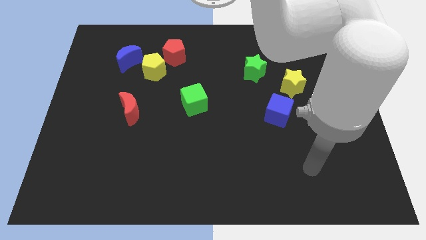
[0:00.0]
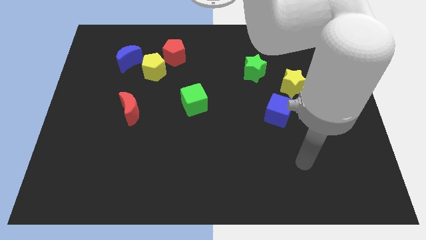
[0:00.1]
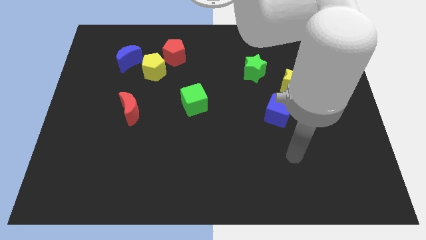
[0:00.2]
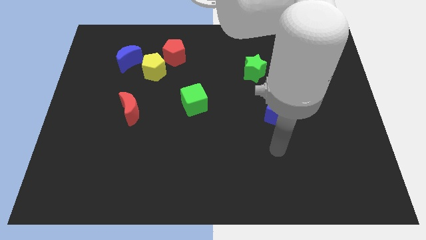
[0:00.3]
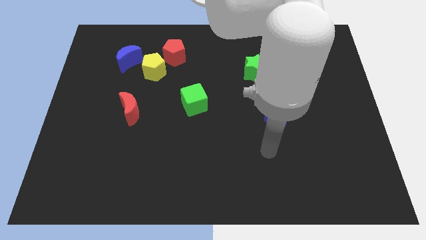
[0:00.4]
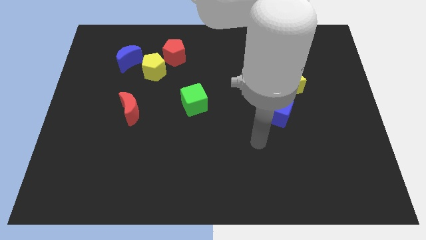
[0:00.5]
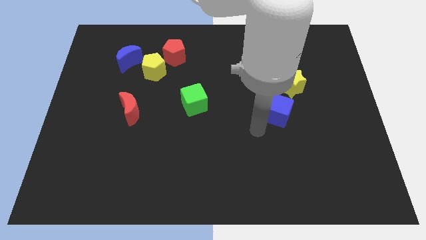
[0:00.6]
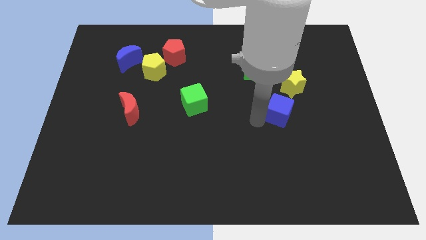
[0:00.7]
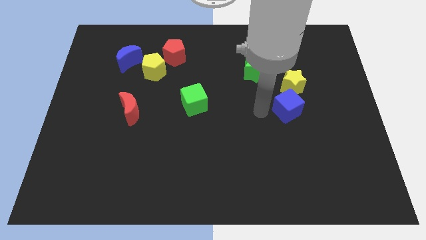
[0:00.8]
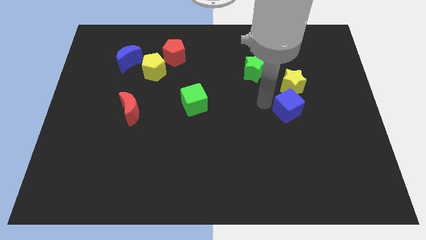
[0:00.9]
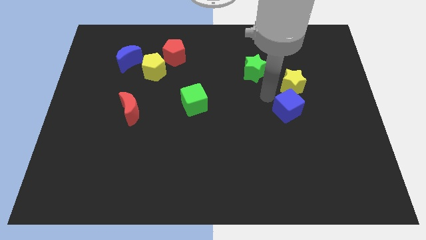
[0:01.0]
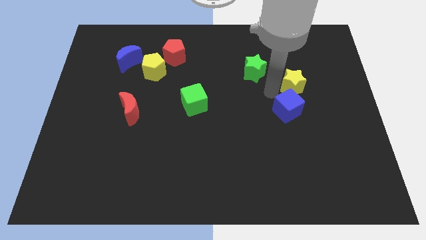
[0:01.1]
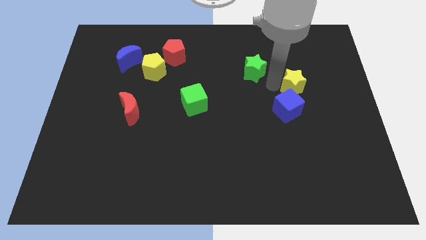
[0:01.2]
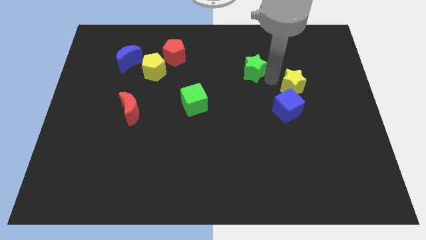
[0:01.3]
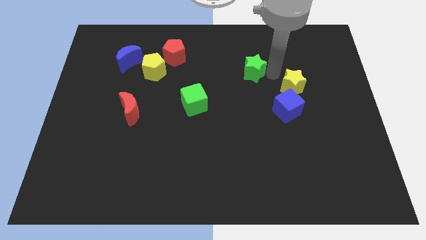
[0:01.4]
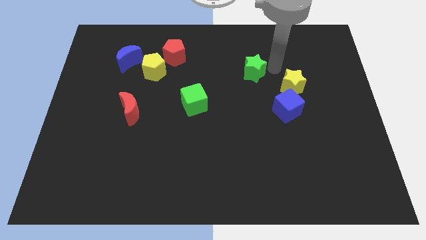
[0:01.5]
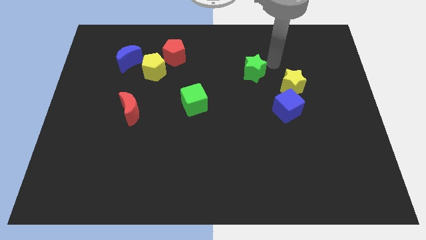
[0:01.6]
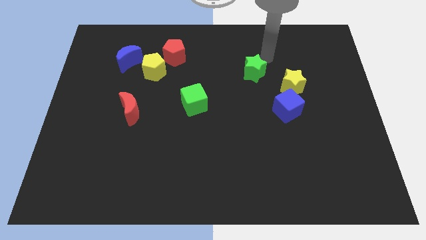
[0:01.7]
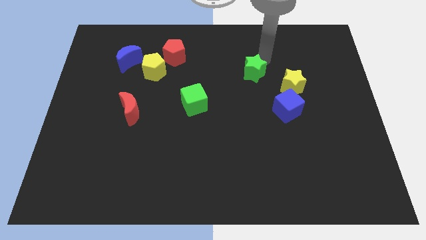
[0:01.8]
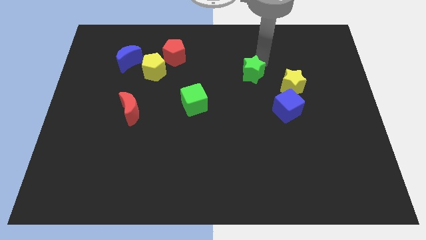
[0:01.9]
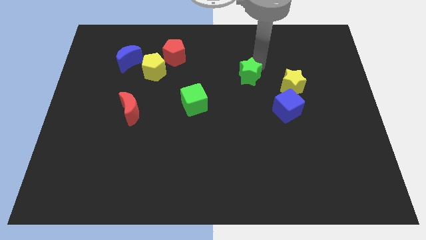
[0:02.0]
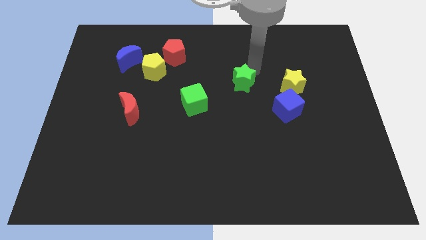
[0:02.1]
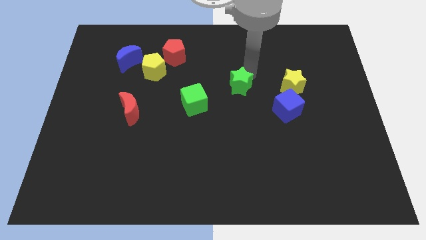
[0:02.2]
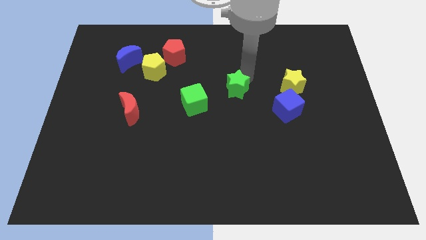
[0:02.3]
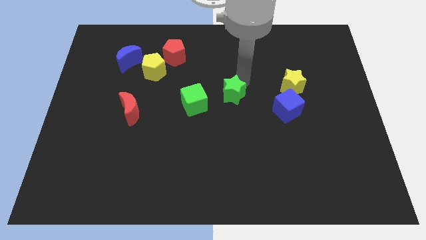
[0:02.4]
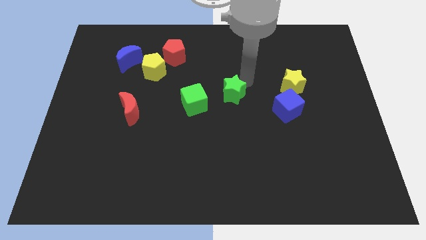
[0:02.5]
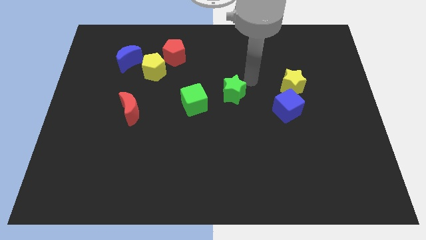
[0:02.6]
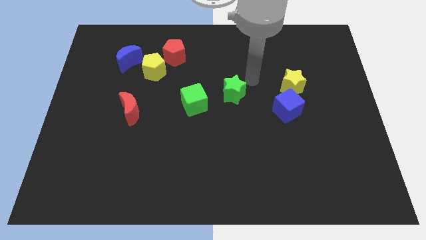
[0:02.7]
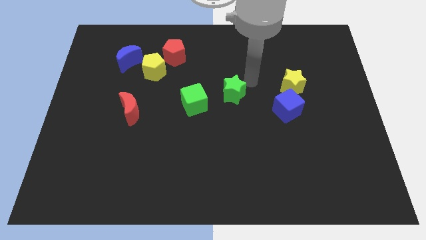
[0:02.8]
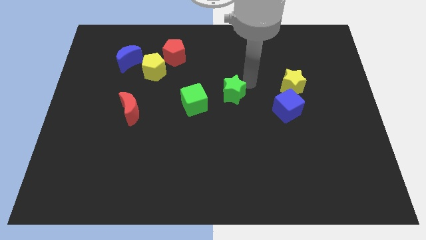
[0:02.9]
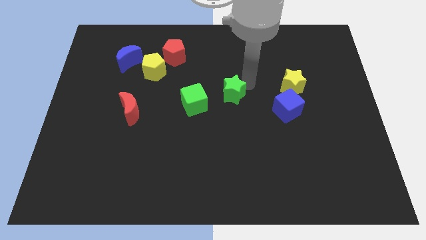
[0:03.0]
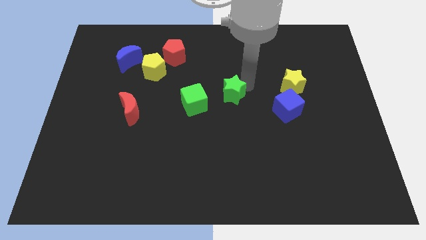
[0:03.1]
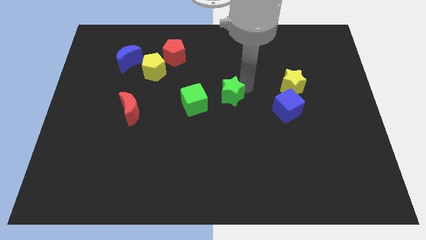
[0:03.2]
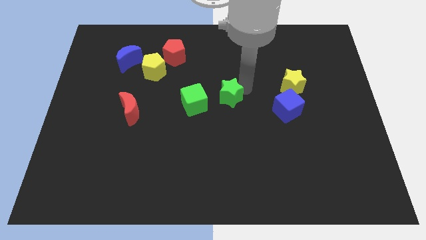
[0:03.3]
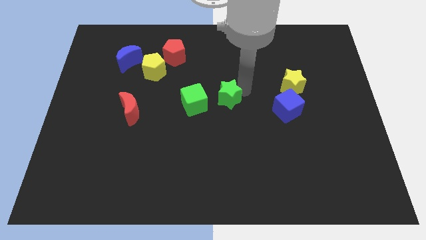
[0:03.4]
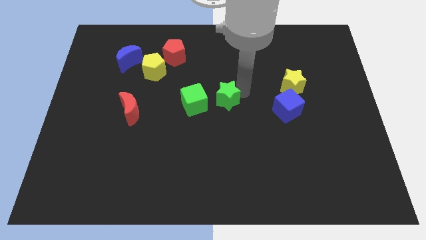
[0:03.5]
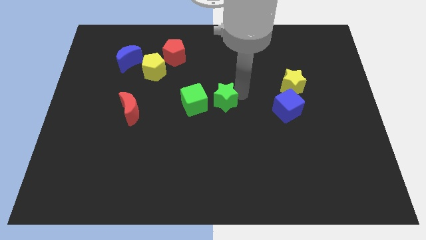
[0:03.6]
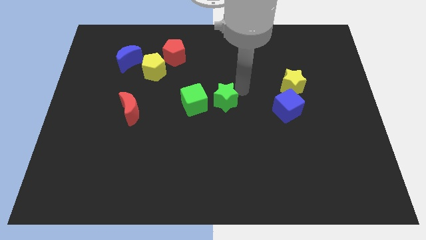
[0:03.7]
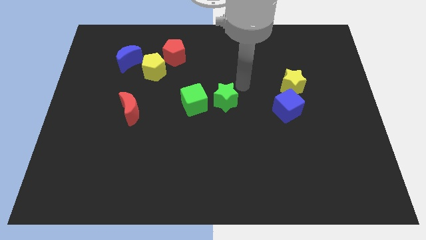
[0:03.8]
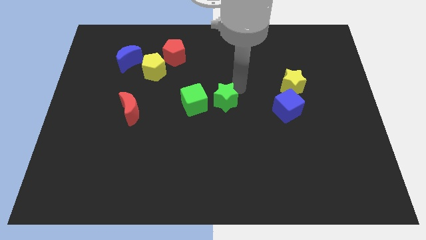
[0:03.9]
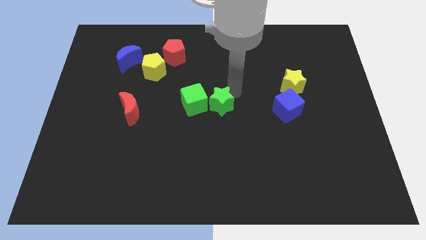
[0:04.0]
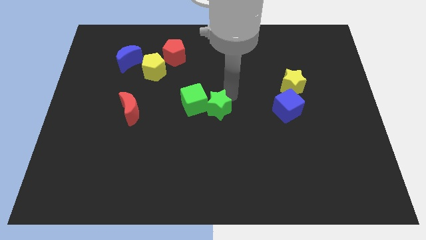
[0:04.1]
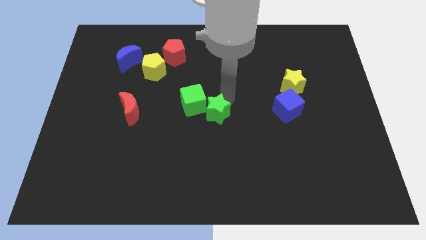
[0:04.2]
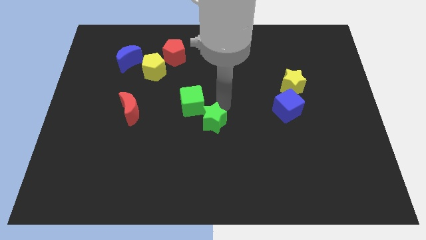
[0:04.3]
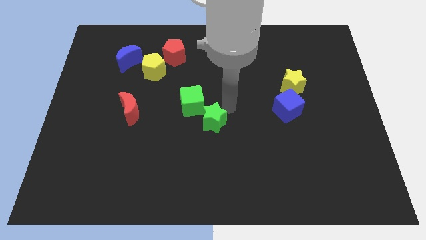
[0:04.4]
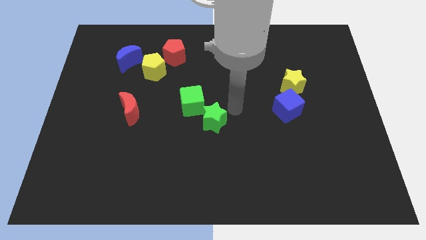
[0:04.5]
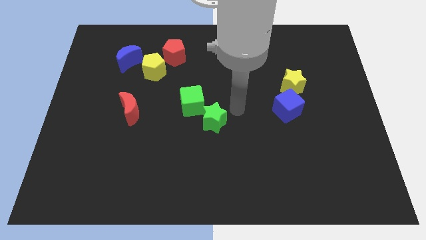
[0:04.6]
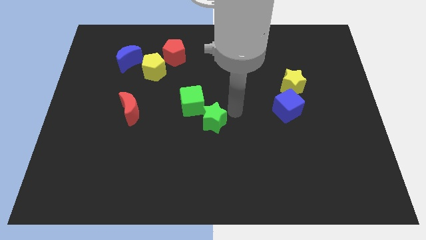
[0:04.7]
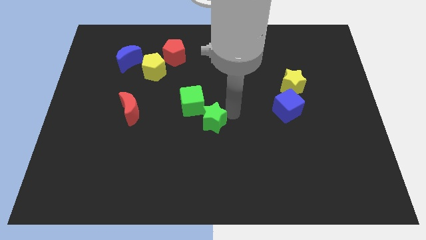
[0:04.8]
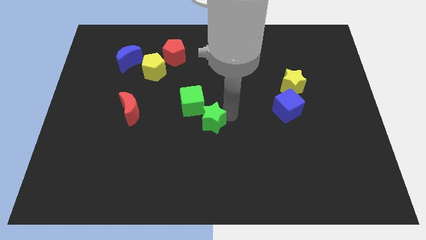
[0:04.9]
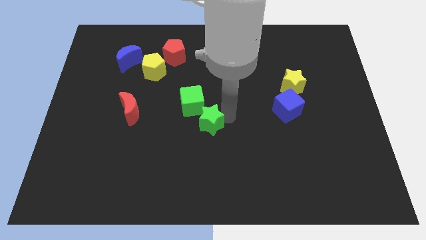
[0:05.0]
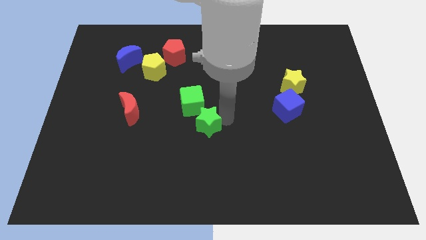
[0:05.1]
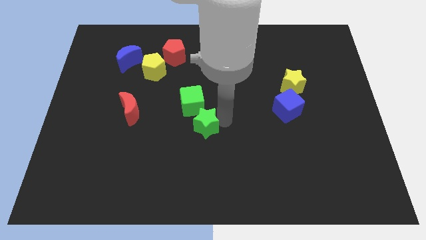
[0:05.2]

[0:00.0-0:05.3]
move the green star downwards and to the left diagonally

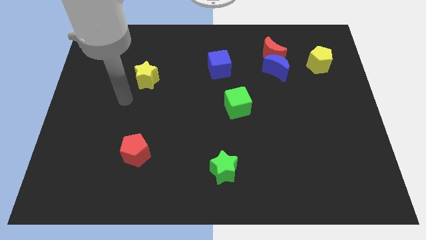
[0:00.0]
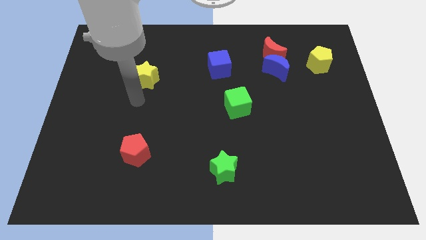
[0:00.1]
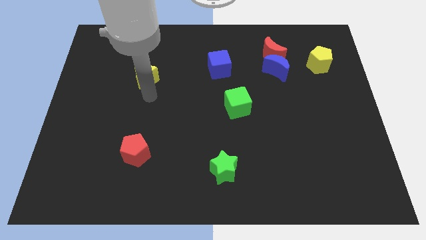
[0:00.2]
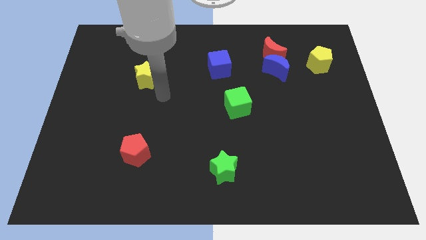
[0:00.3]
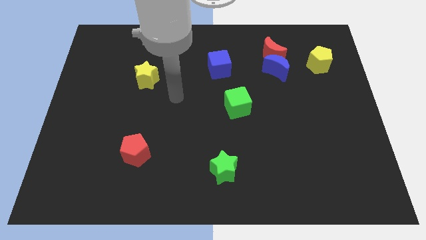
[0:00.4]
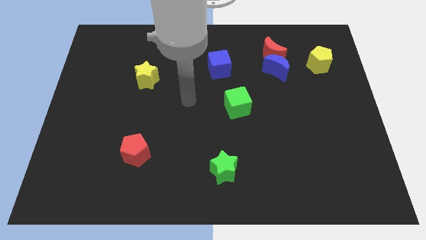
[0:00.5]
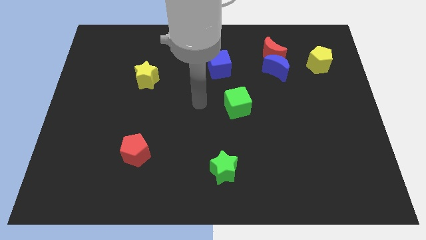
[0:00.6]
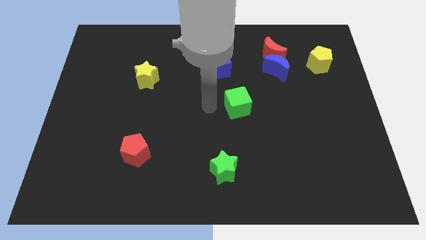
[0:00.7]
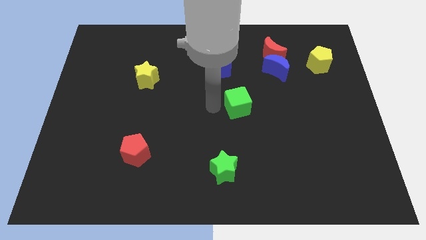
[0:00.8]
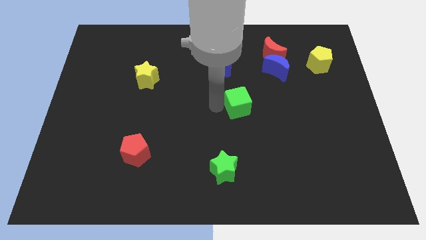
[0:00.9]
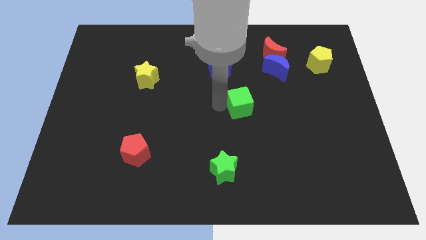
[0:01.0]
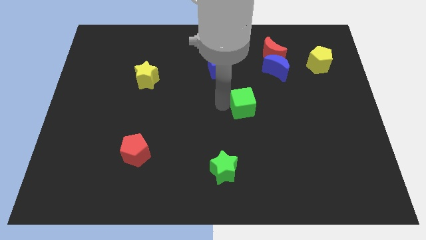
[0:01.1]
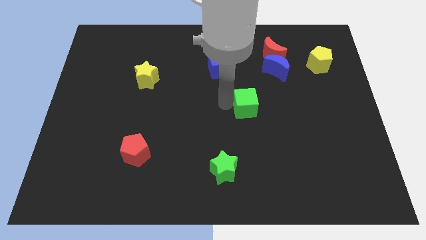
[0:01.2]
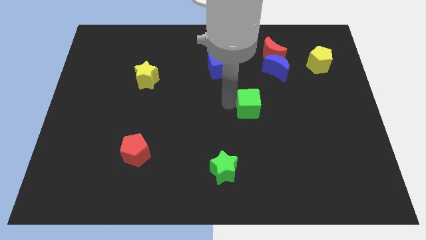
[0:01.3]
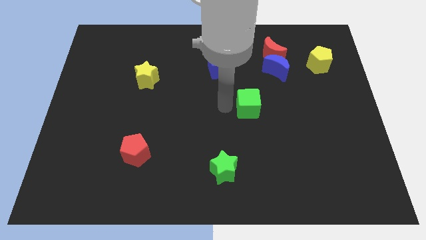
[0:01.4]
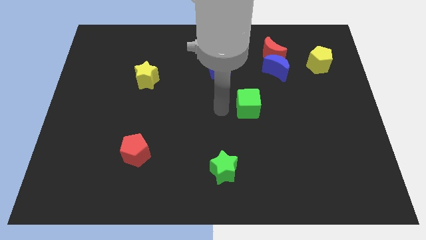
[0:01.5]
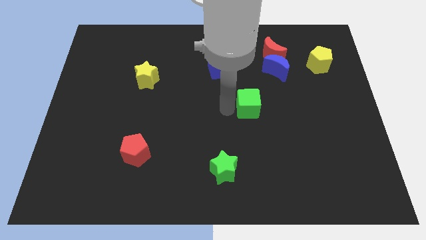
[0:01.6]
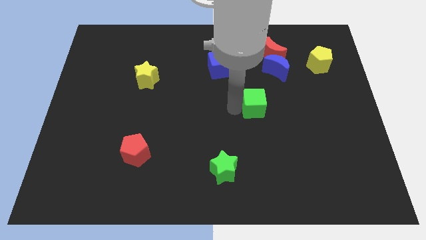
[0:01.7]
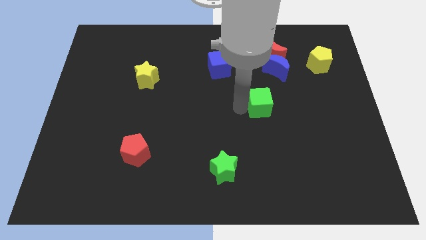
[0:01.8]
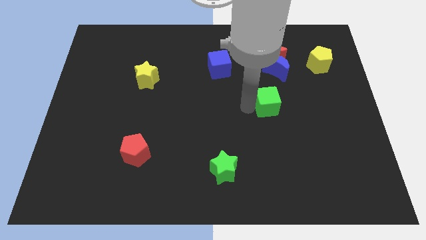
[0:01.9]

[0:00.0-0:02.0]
slide the green cube slightly right

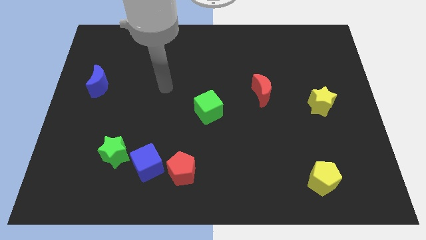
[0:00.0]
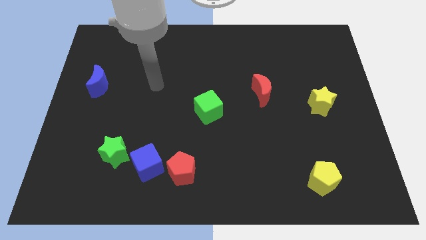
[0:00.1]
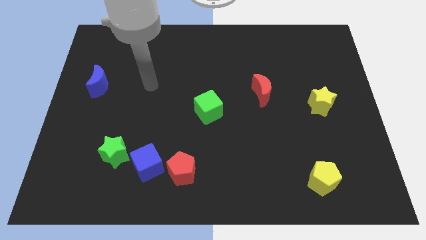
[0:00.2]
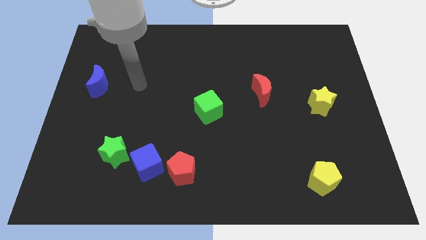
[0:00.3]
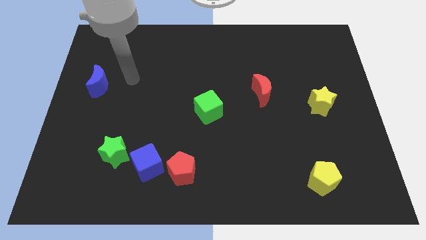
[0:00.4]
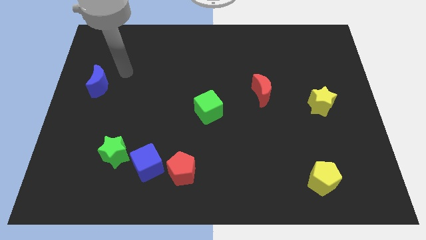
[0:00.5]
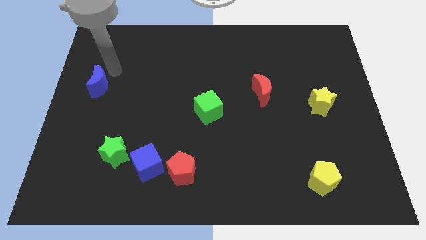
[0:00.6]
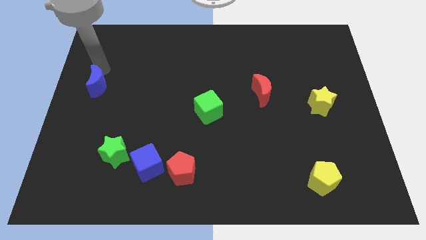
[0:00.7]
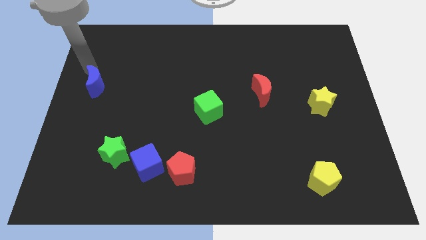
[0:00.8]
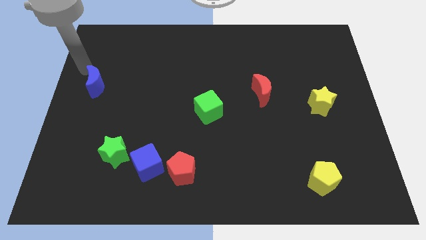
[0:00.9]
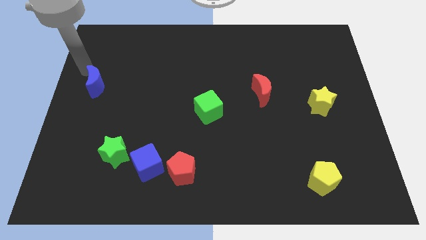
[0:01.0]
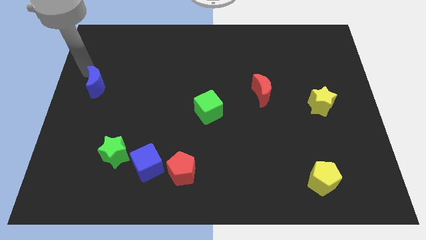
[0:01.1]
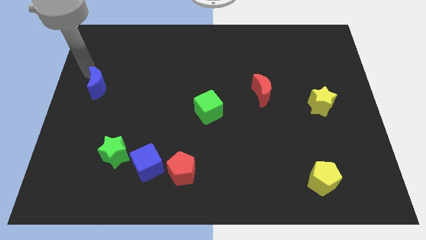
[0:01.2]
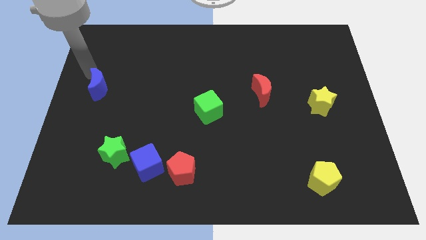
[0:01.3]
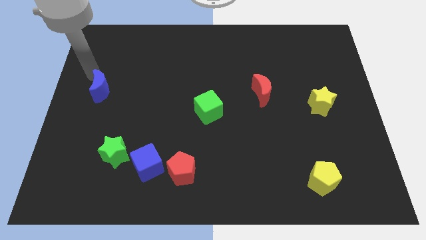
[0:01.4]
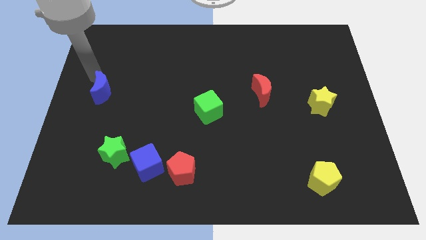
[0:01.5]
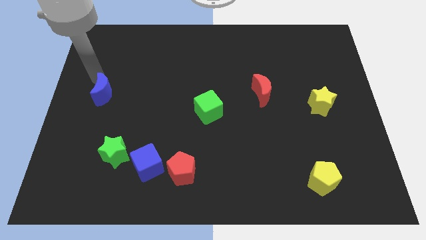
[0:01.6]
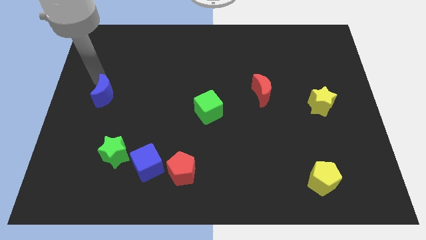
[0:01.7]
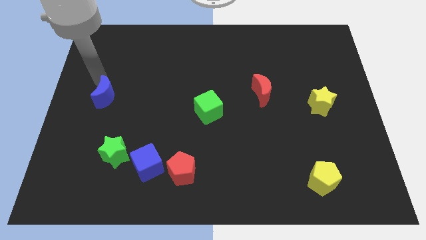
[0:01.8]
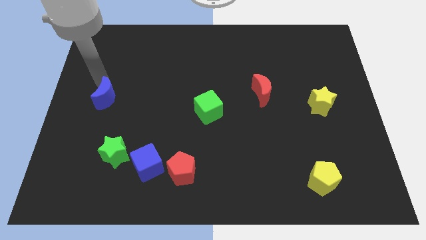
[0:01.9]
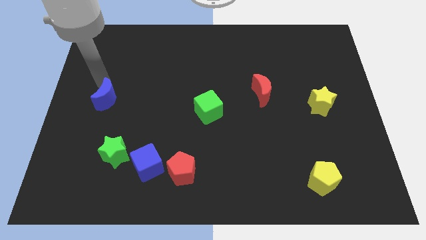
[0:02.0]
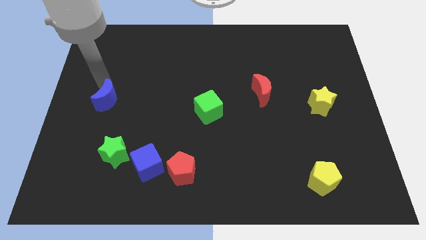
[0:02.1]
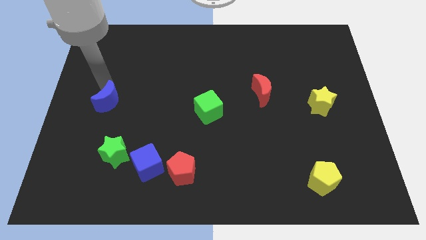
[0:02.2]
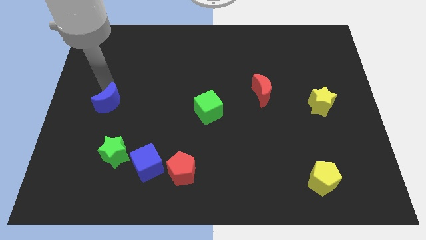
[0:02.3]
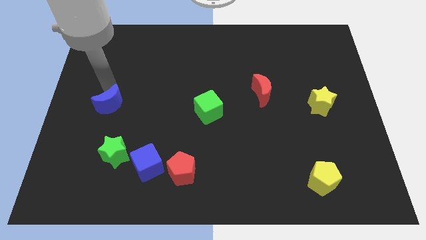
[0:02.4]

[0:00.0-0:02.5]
slightly push the blue moon diagonally downwards and to the right
